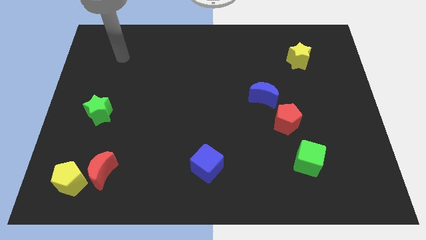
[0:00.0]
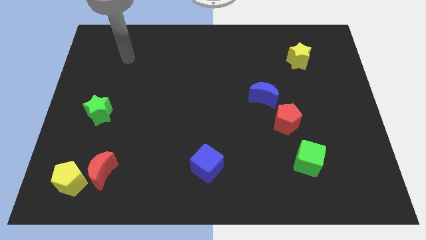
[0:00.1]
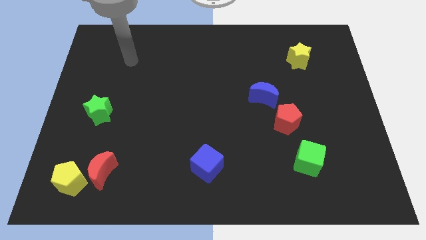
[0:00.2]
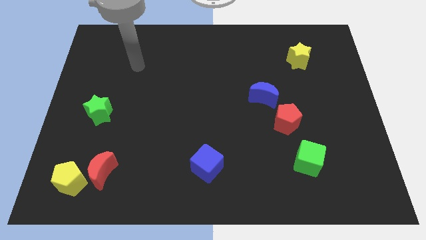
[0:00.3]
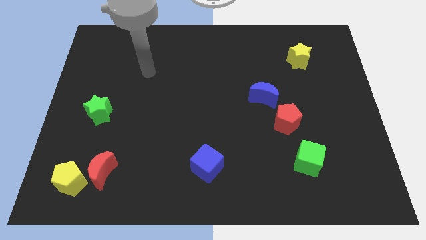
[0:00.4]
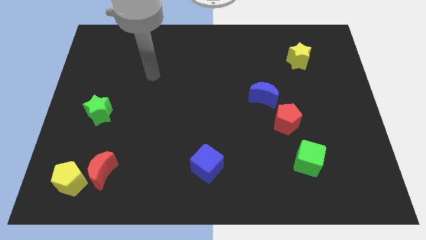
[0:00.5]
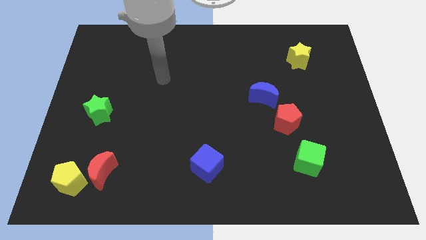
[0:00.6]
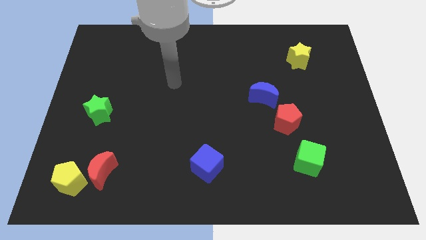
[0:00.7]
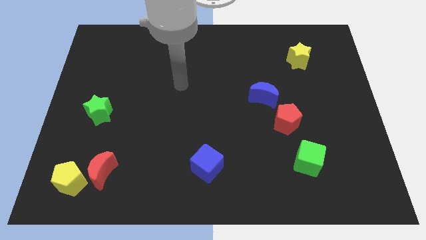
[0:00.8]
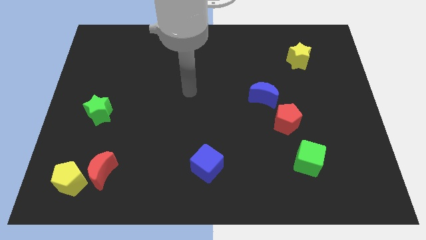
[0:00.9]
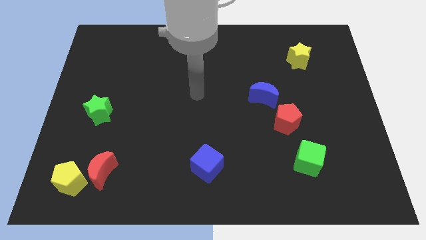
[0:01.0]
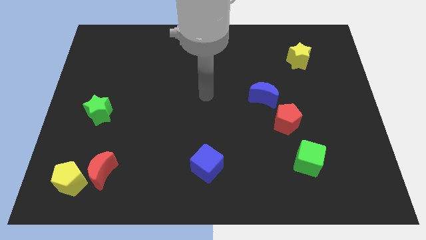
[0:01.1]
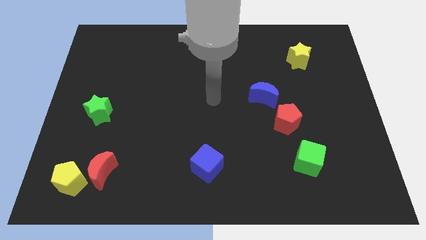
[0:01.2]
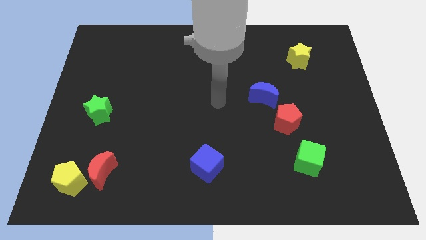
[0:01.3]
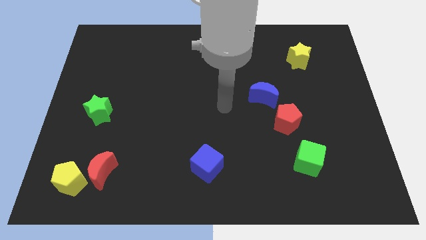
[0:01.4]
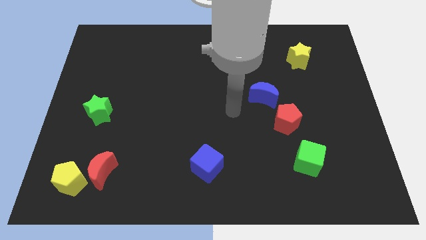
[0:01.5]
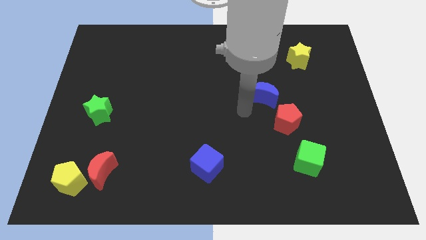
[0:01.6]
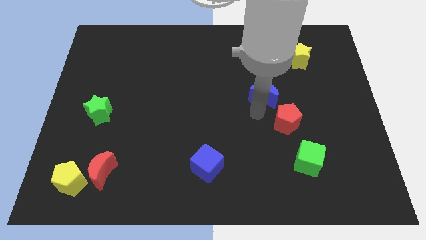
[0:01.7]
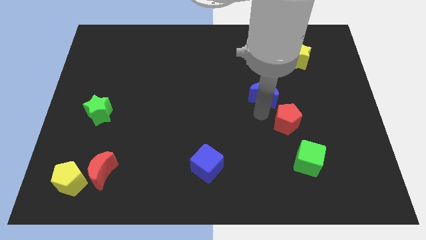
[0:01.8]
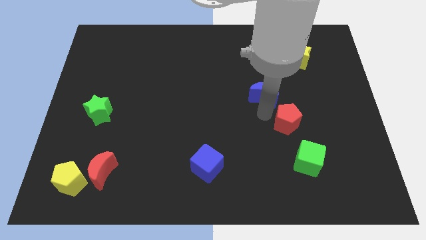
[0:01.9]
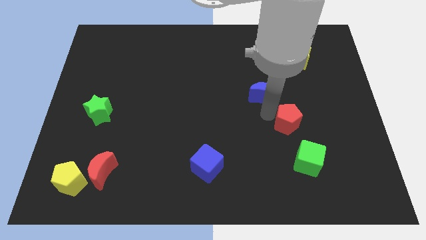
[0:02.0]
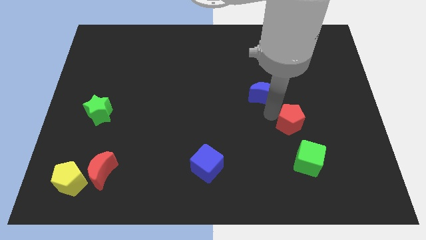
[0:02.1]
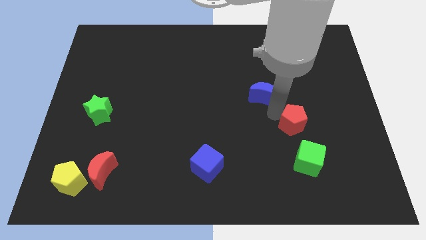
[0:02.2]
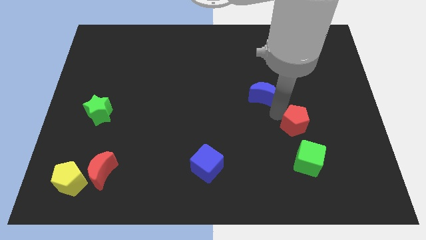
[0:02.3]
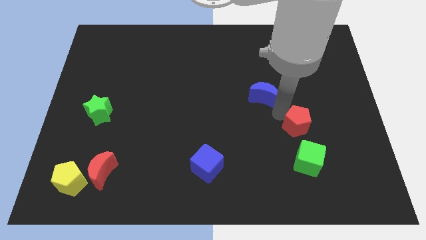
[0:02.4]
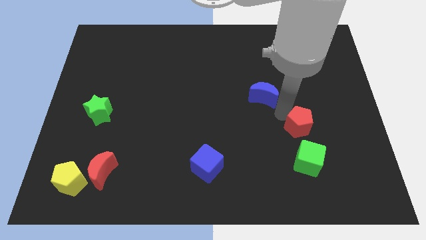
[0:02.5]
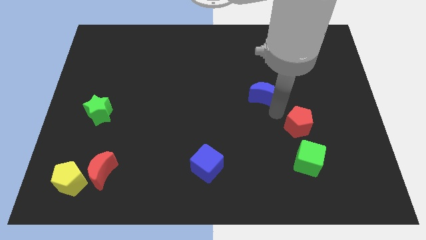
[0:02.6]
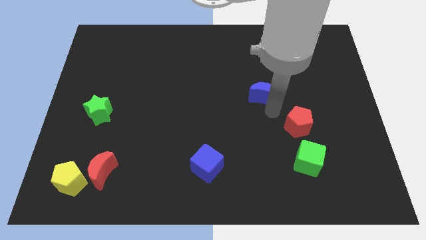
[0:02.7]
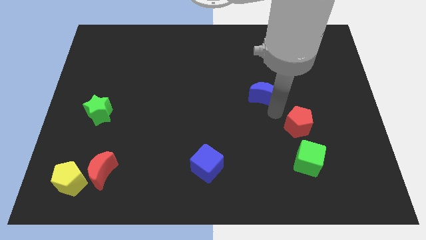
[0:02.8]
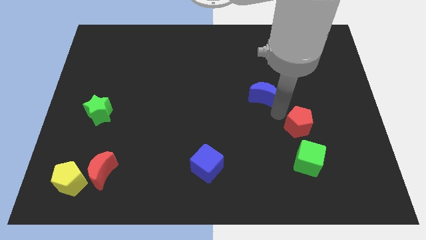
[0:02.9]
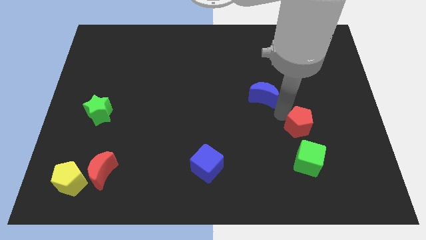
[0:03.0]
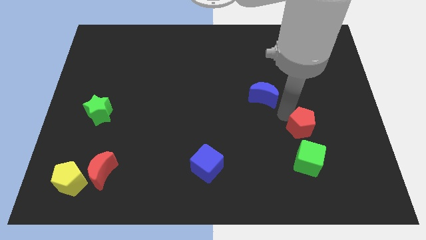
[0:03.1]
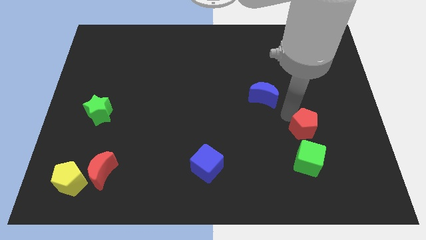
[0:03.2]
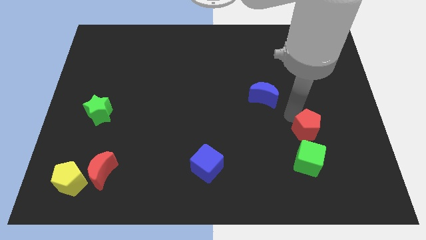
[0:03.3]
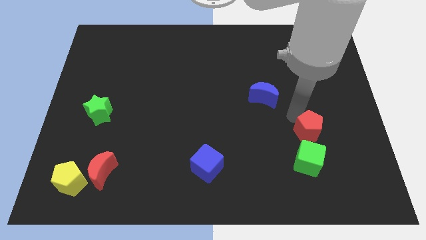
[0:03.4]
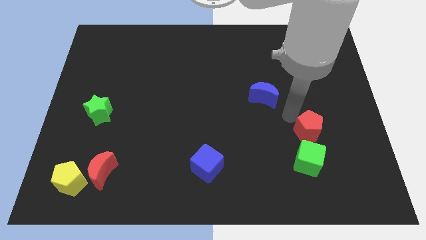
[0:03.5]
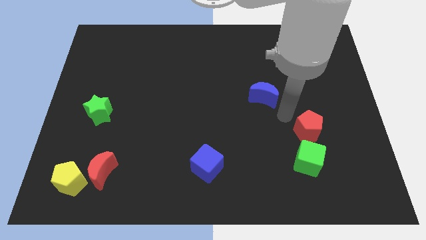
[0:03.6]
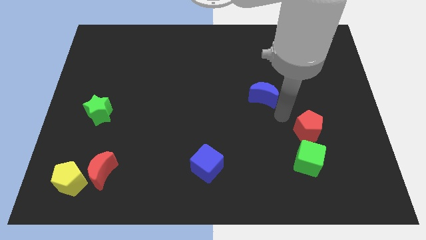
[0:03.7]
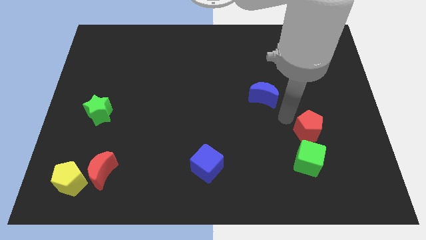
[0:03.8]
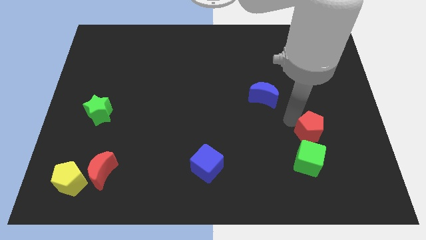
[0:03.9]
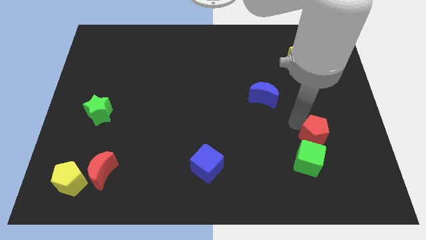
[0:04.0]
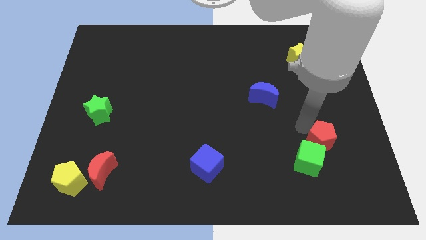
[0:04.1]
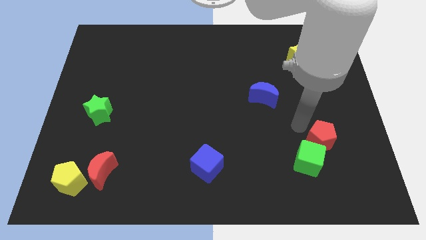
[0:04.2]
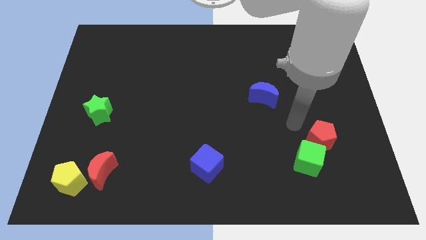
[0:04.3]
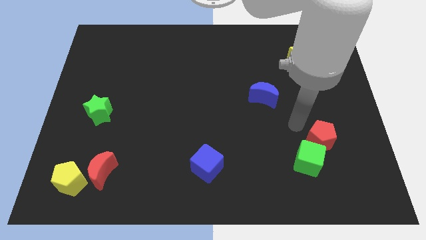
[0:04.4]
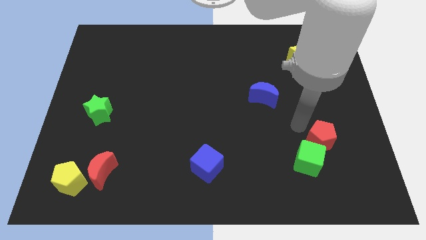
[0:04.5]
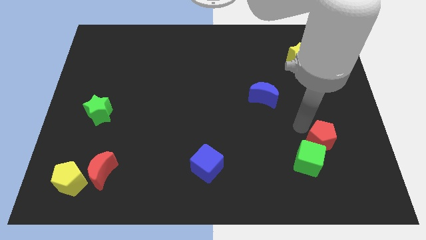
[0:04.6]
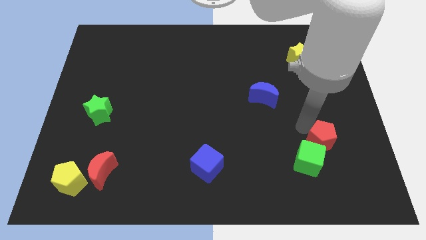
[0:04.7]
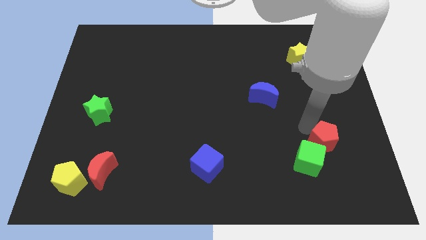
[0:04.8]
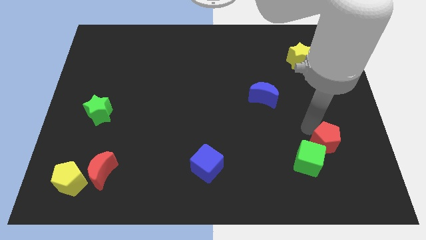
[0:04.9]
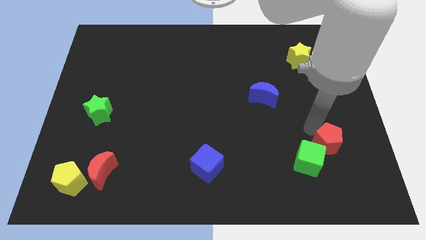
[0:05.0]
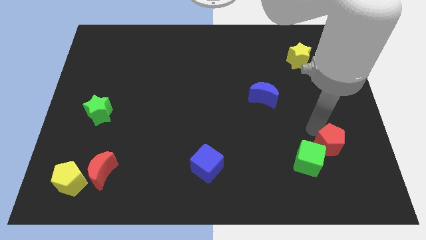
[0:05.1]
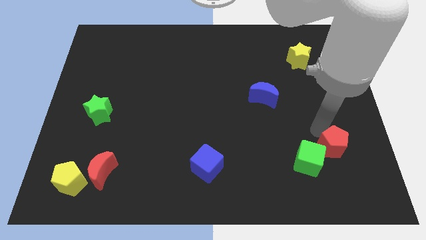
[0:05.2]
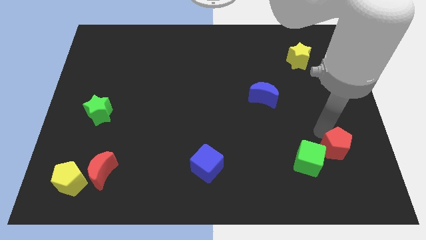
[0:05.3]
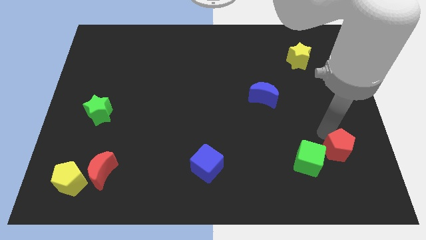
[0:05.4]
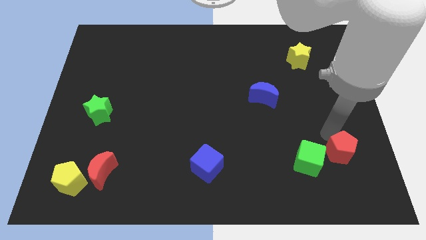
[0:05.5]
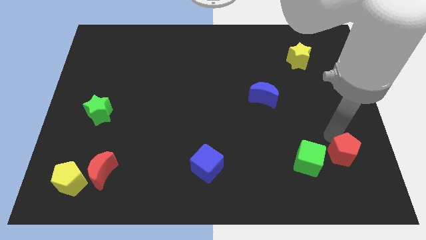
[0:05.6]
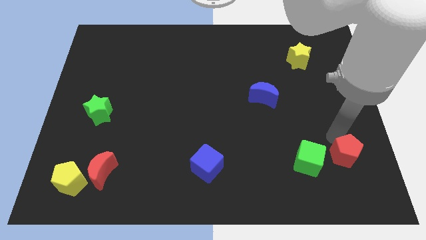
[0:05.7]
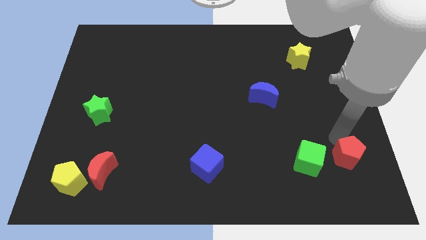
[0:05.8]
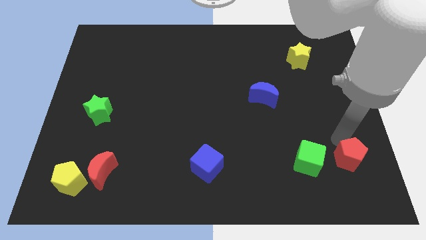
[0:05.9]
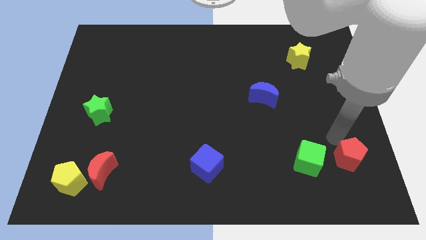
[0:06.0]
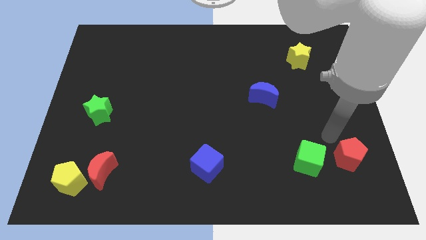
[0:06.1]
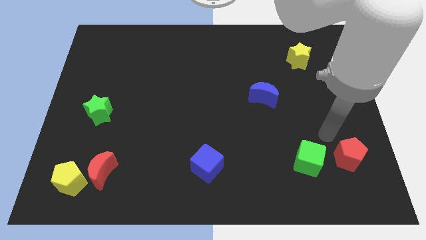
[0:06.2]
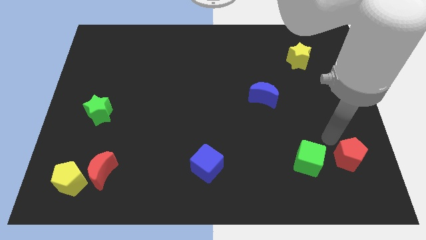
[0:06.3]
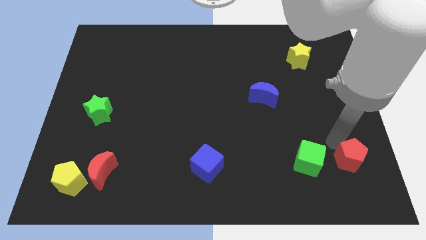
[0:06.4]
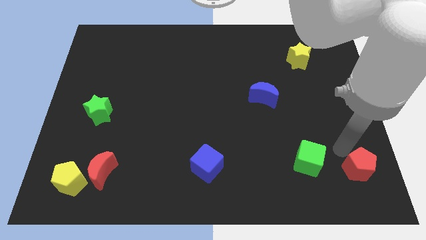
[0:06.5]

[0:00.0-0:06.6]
push the red pentagon to the bottom right corner

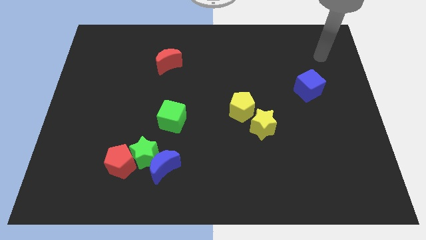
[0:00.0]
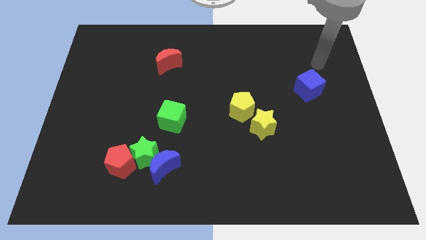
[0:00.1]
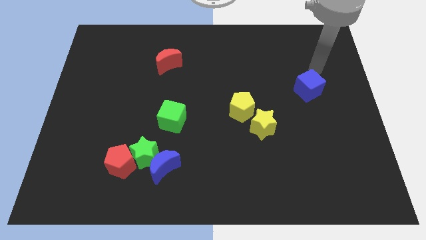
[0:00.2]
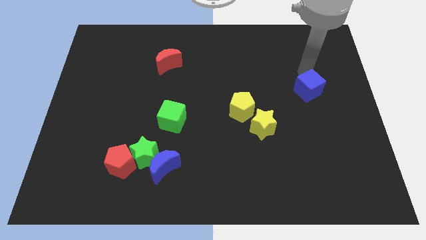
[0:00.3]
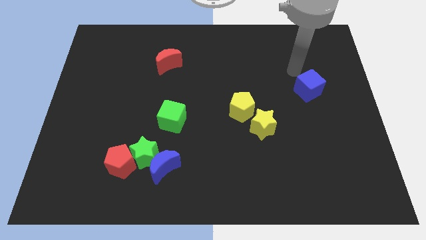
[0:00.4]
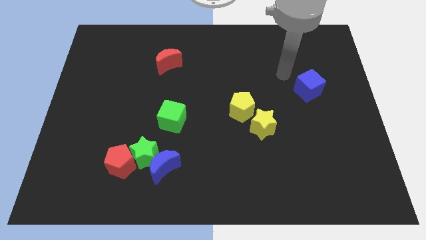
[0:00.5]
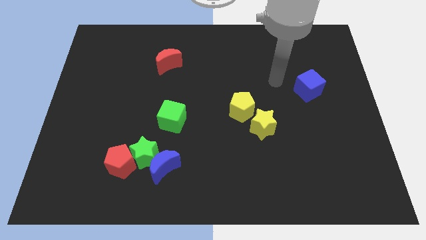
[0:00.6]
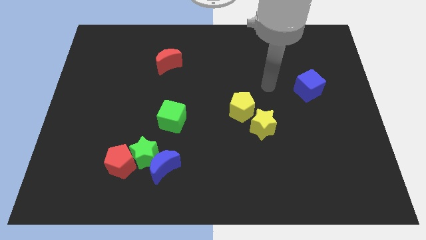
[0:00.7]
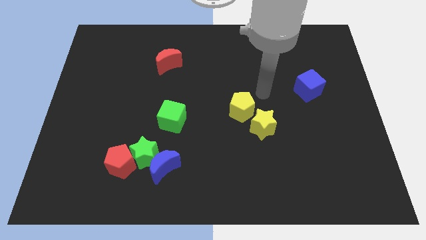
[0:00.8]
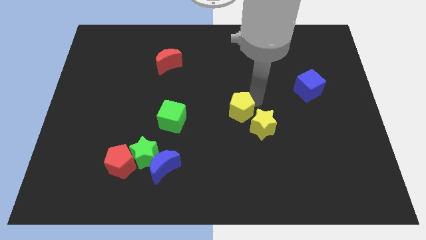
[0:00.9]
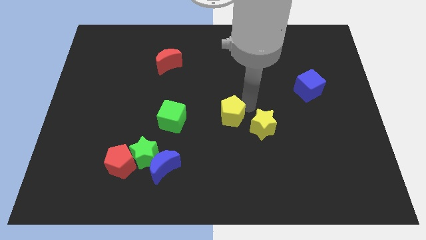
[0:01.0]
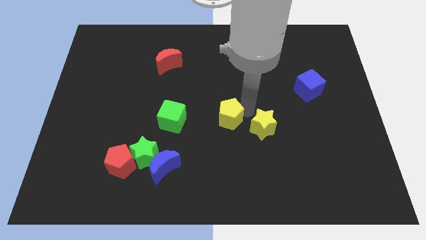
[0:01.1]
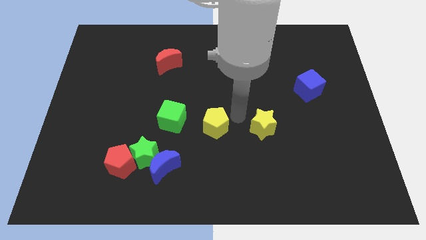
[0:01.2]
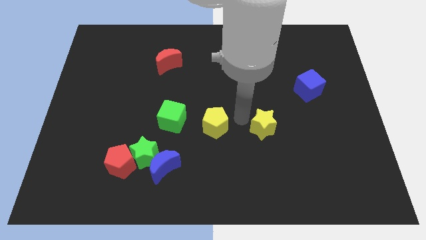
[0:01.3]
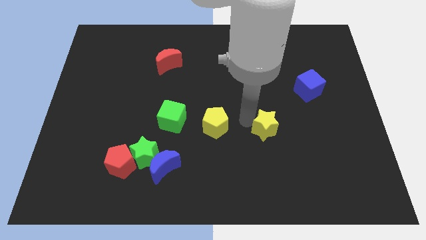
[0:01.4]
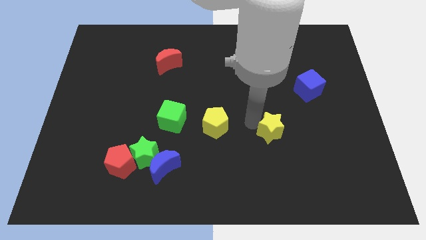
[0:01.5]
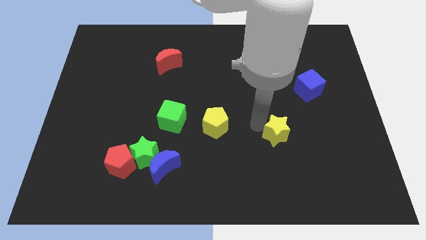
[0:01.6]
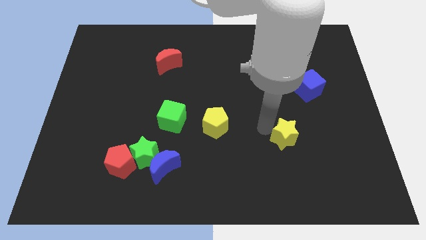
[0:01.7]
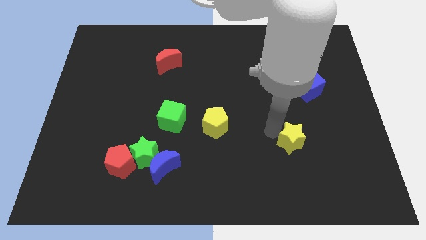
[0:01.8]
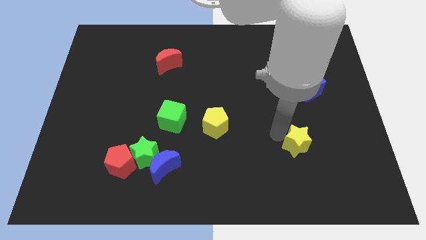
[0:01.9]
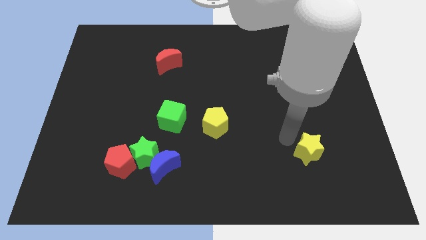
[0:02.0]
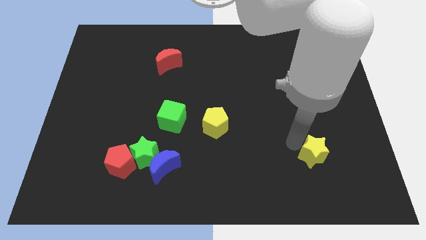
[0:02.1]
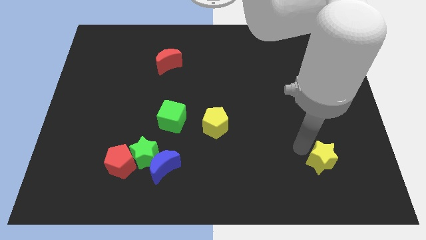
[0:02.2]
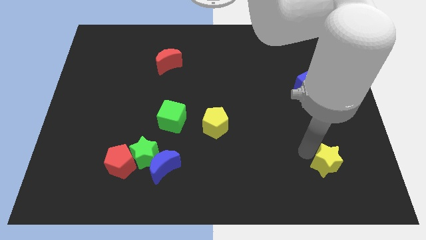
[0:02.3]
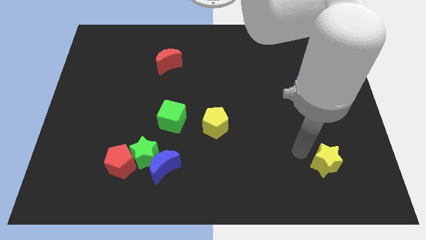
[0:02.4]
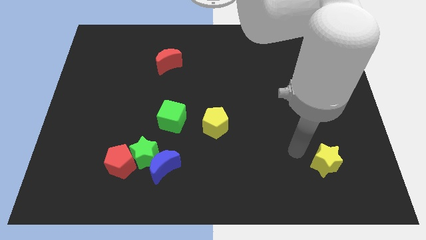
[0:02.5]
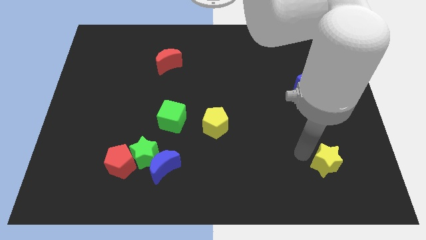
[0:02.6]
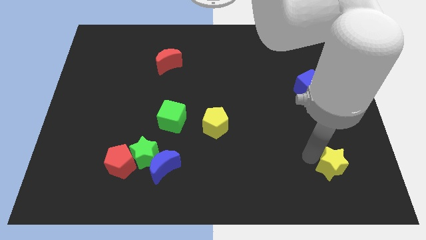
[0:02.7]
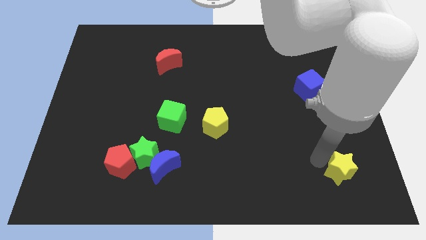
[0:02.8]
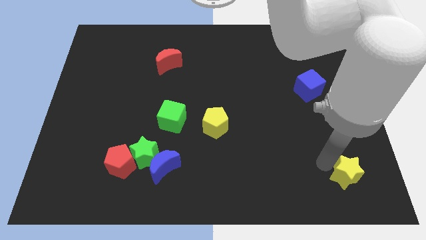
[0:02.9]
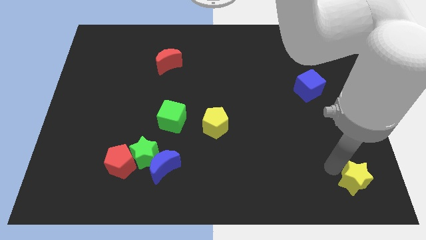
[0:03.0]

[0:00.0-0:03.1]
slide the yellow star to the lower right corner
